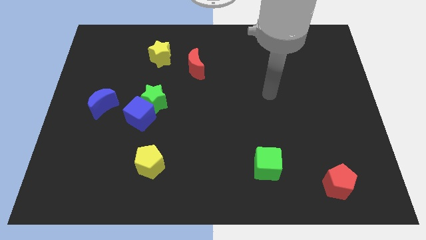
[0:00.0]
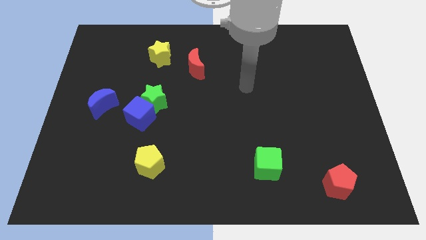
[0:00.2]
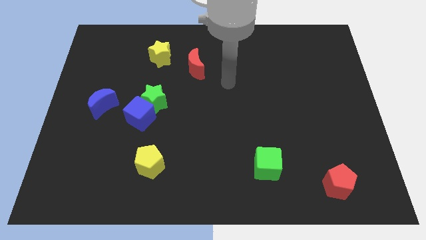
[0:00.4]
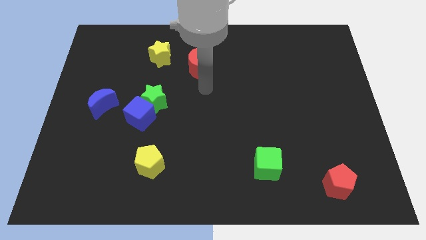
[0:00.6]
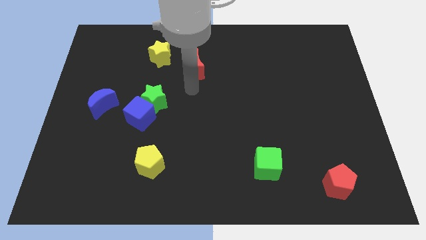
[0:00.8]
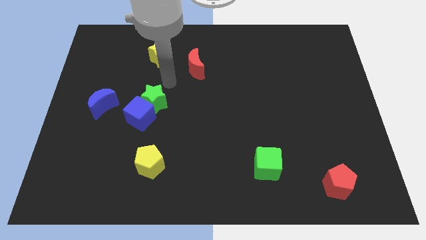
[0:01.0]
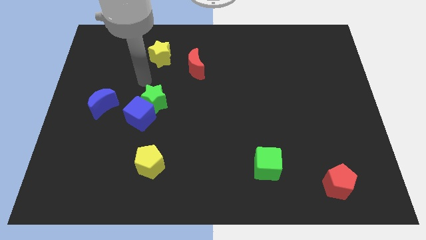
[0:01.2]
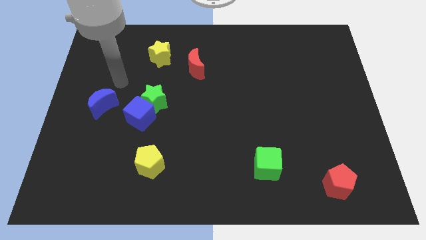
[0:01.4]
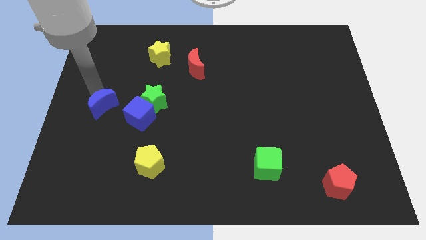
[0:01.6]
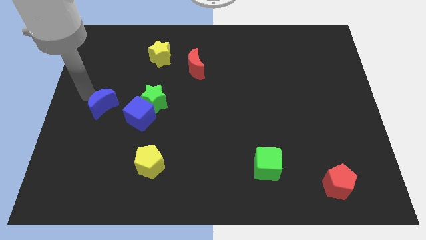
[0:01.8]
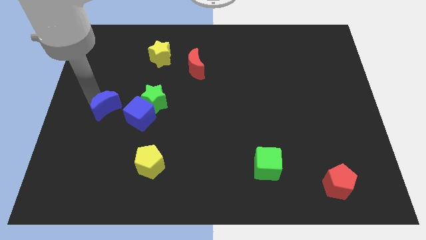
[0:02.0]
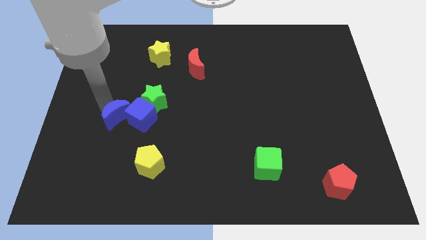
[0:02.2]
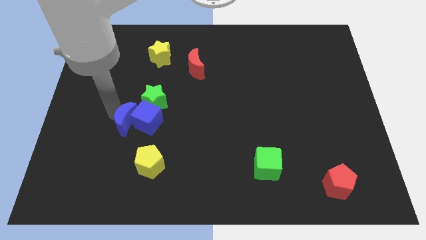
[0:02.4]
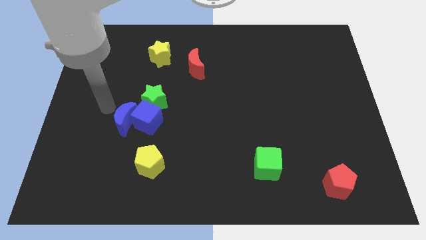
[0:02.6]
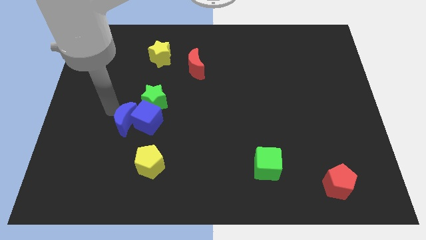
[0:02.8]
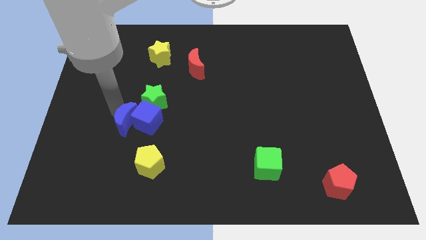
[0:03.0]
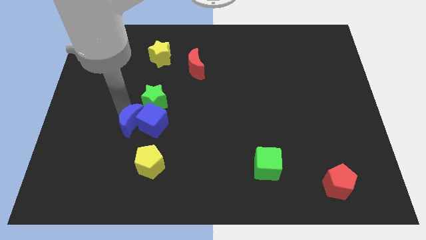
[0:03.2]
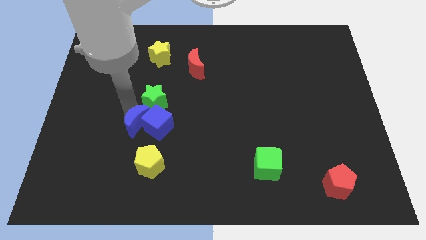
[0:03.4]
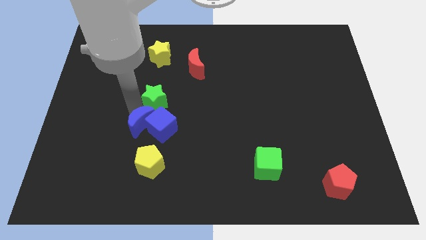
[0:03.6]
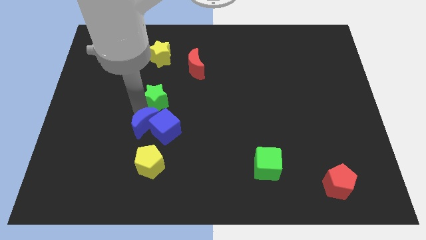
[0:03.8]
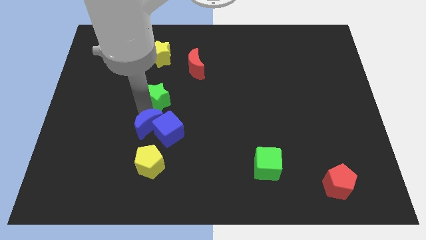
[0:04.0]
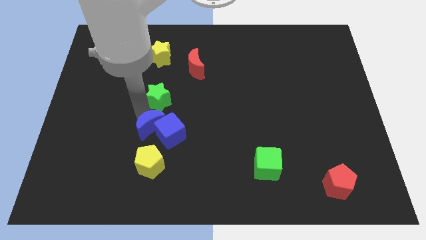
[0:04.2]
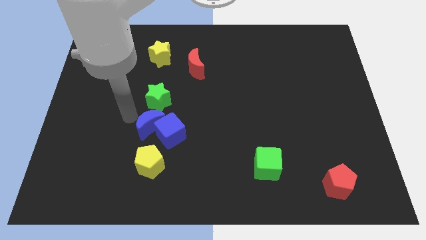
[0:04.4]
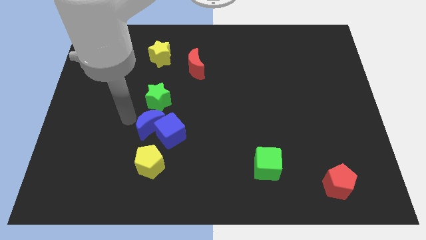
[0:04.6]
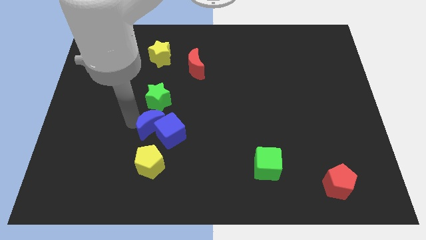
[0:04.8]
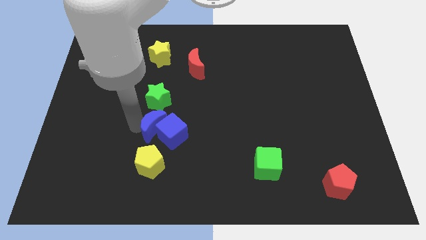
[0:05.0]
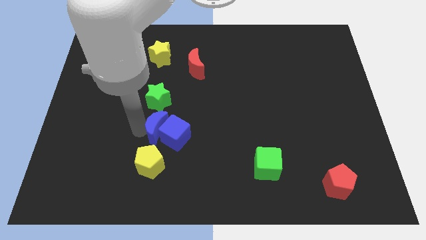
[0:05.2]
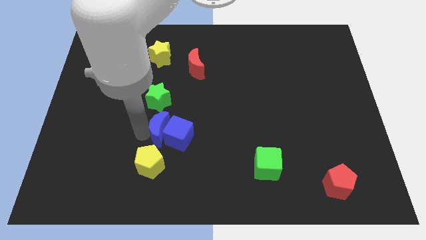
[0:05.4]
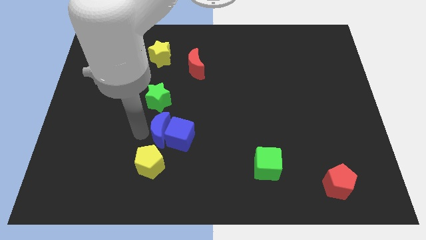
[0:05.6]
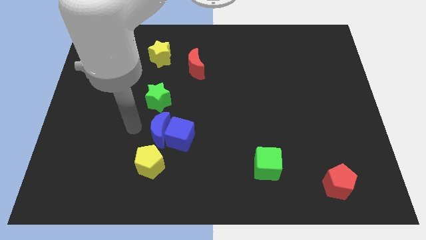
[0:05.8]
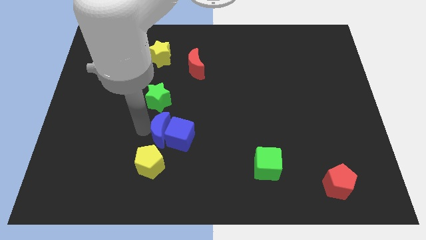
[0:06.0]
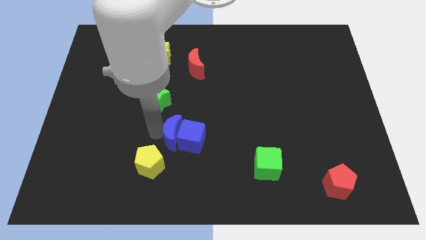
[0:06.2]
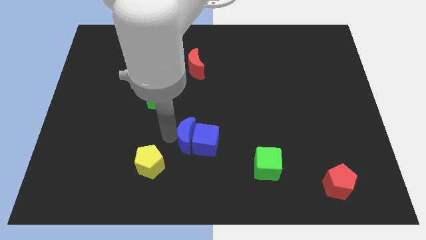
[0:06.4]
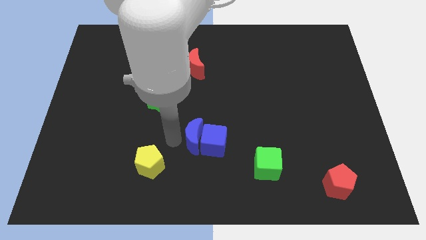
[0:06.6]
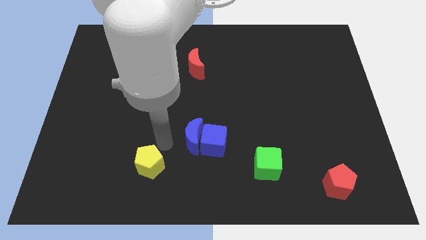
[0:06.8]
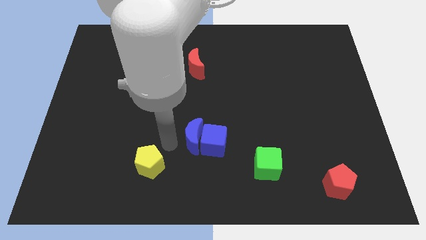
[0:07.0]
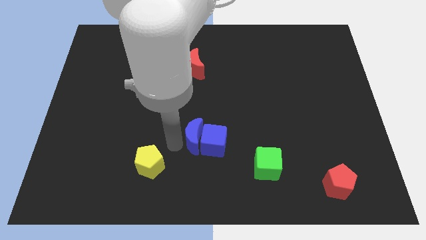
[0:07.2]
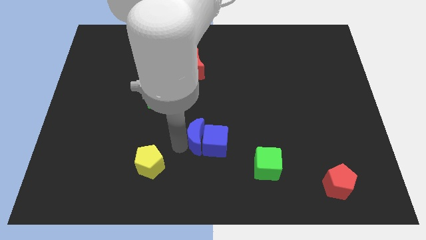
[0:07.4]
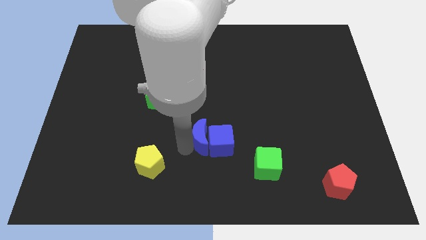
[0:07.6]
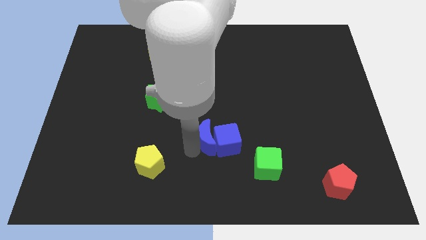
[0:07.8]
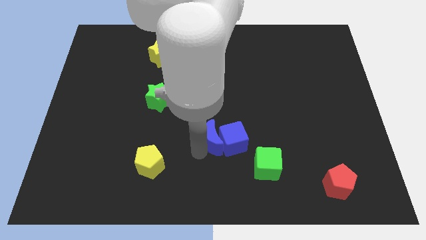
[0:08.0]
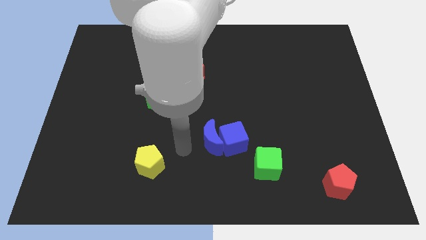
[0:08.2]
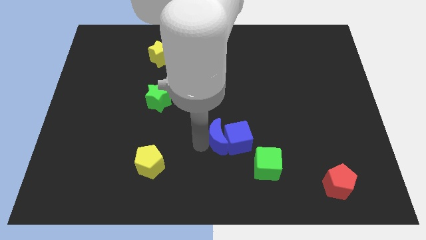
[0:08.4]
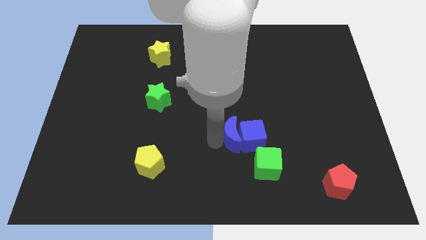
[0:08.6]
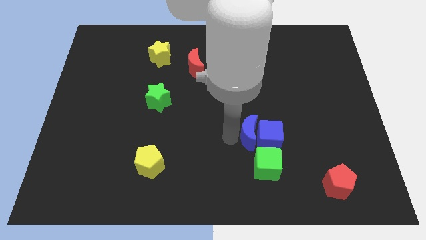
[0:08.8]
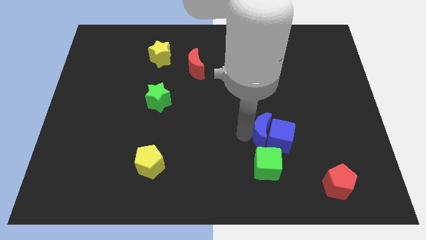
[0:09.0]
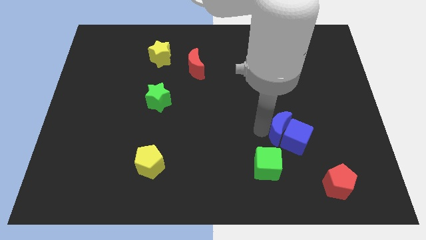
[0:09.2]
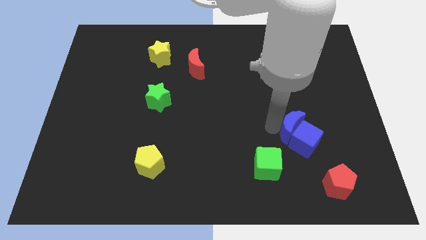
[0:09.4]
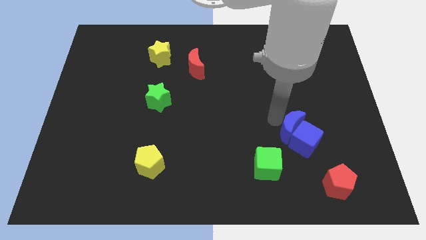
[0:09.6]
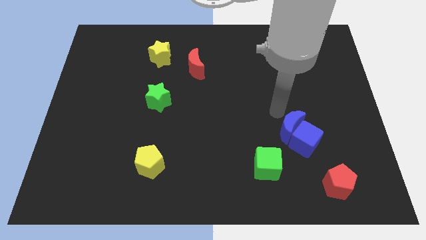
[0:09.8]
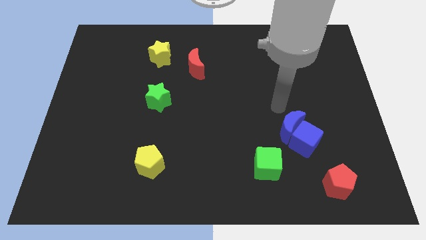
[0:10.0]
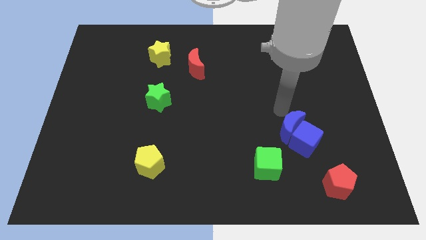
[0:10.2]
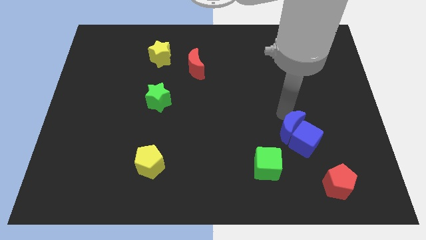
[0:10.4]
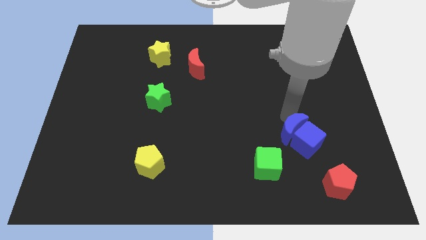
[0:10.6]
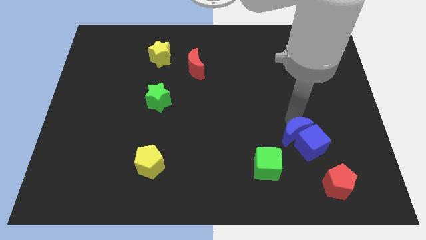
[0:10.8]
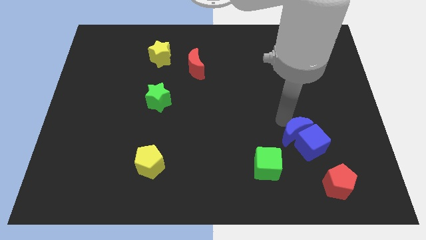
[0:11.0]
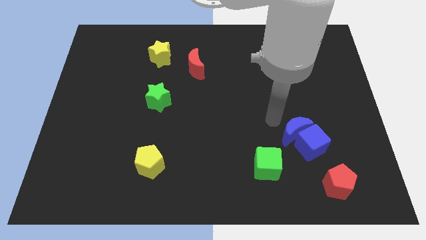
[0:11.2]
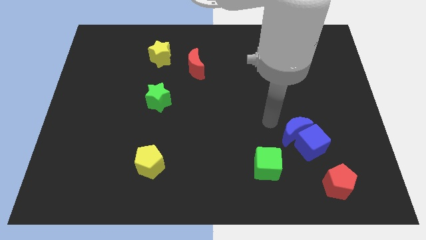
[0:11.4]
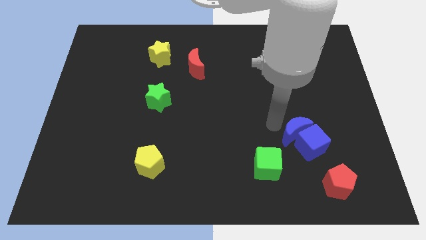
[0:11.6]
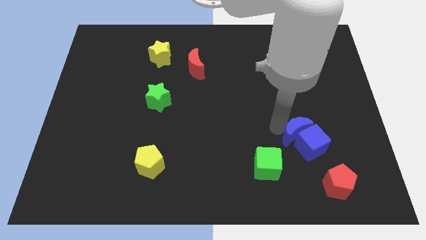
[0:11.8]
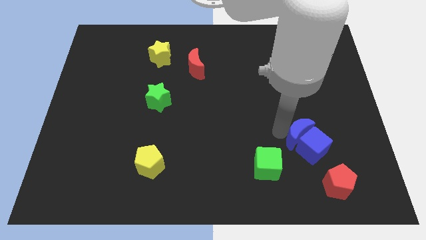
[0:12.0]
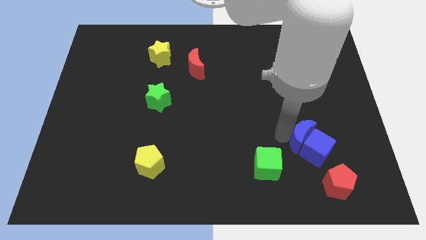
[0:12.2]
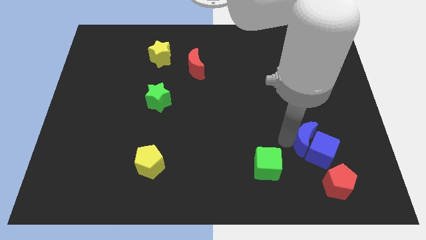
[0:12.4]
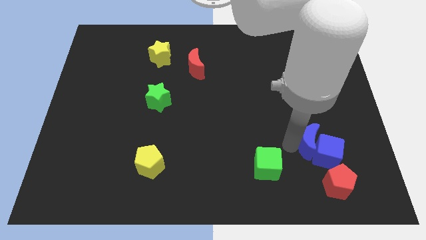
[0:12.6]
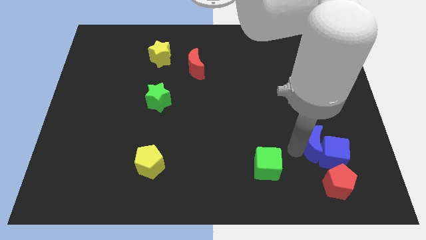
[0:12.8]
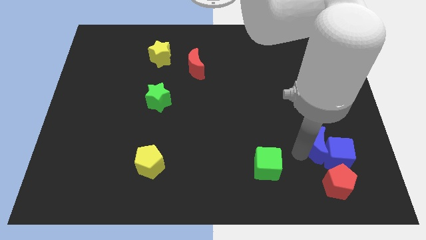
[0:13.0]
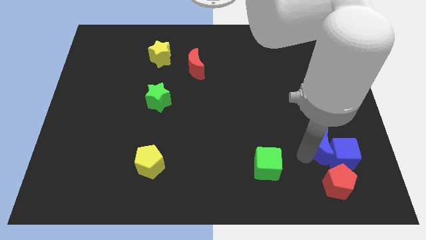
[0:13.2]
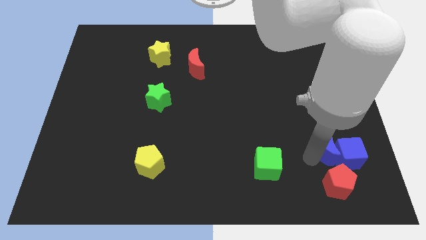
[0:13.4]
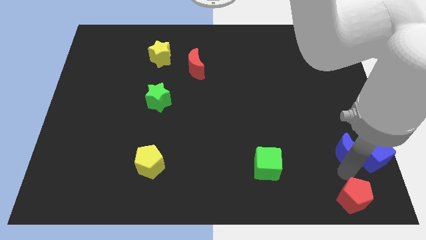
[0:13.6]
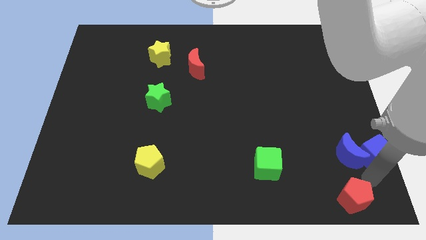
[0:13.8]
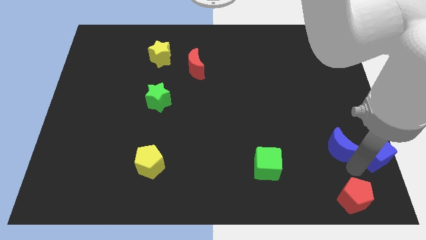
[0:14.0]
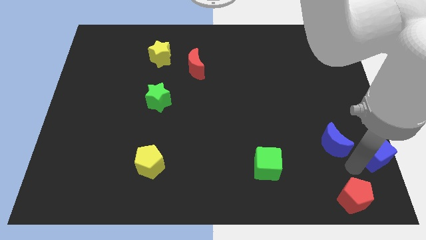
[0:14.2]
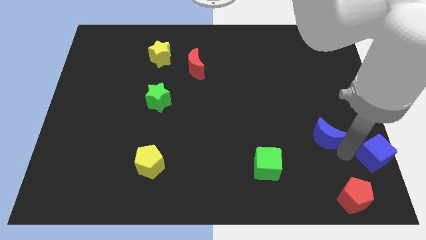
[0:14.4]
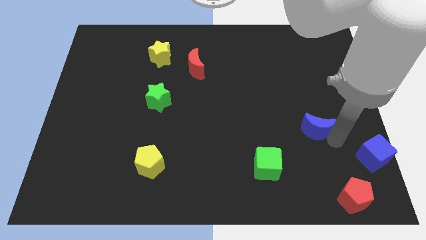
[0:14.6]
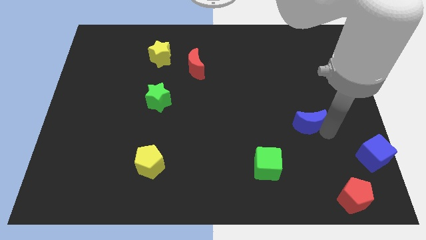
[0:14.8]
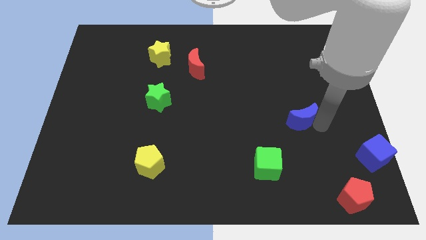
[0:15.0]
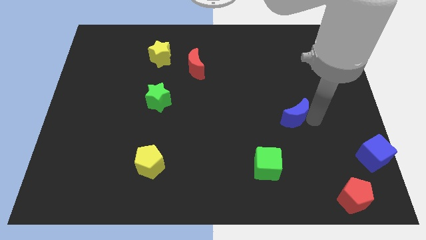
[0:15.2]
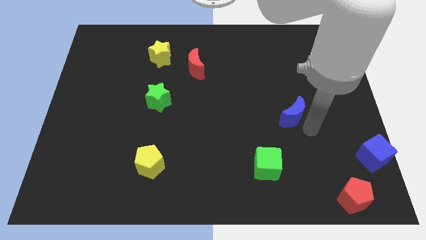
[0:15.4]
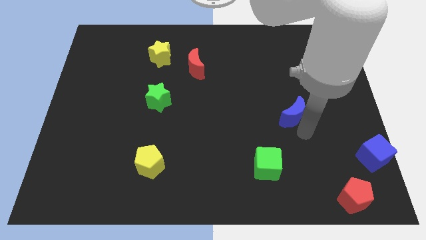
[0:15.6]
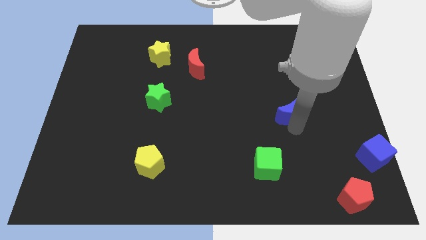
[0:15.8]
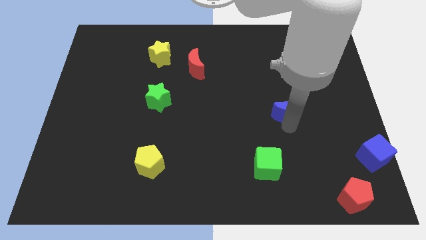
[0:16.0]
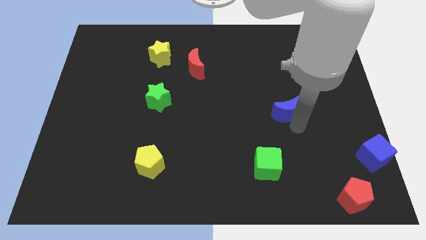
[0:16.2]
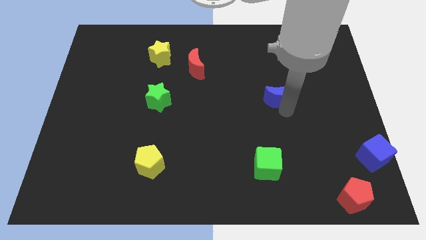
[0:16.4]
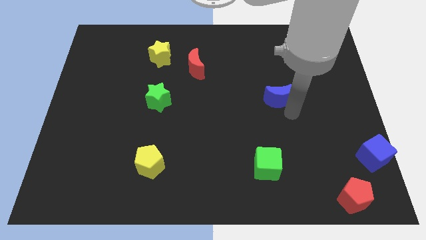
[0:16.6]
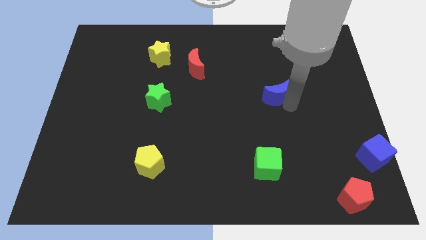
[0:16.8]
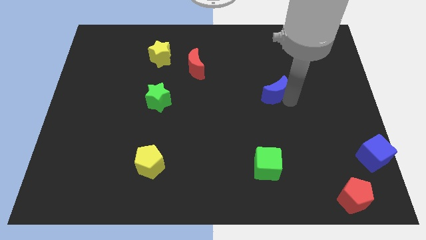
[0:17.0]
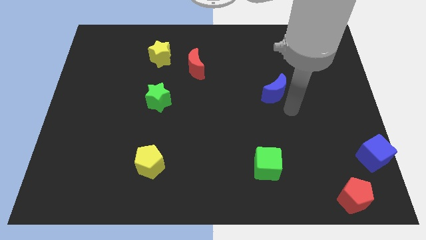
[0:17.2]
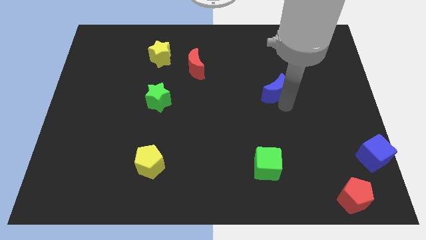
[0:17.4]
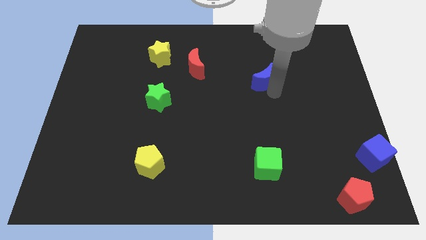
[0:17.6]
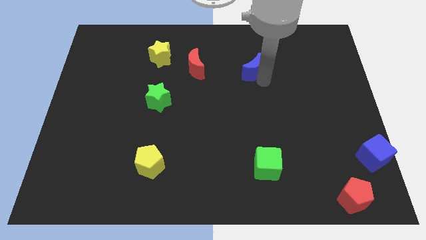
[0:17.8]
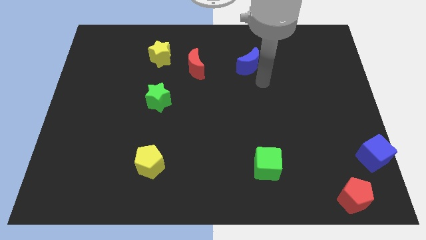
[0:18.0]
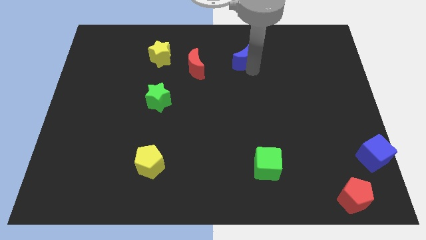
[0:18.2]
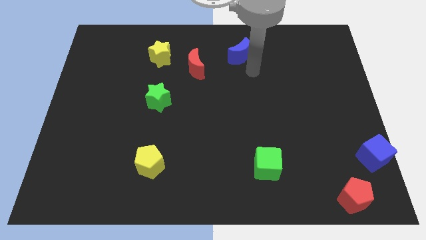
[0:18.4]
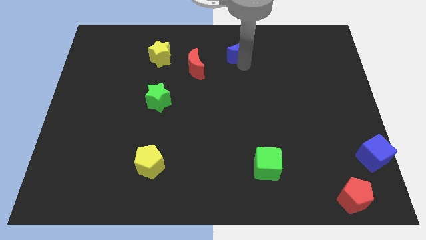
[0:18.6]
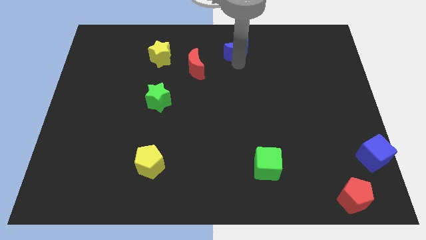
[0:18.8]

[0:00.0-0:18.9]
put the blue moon to the top
